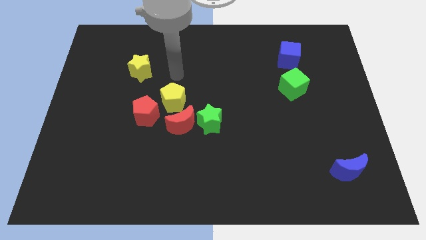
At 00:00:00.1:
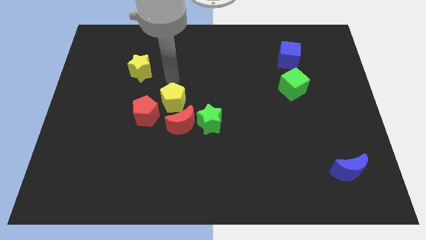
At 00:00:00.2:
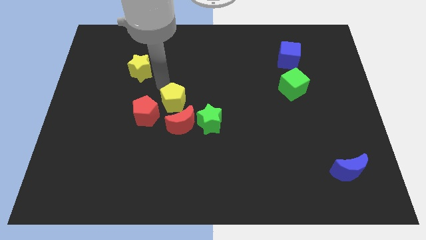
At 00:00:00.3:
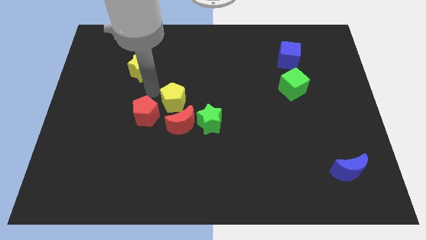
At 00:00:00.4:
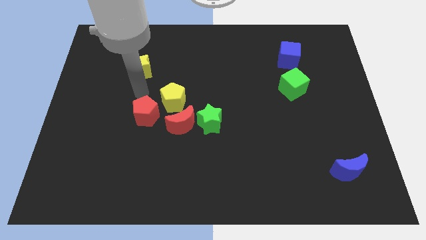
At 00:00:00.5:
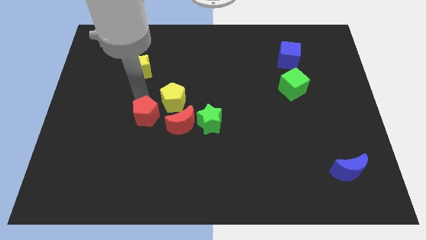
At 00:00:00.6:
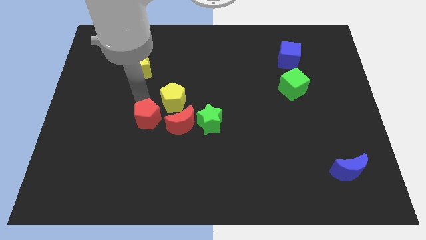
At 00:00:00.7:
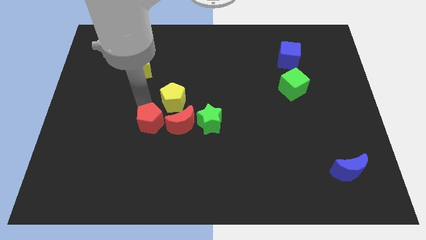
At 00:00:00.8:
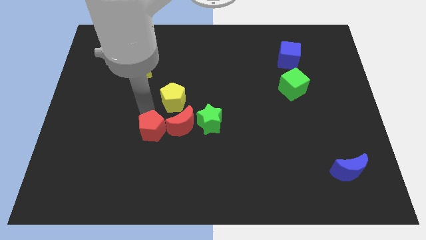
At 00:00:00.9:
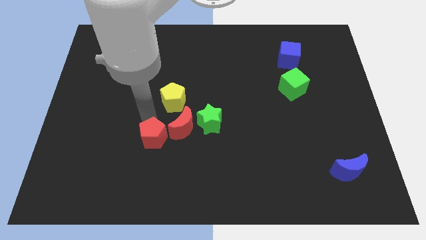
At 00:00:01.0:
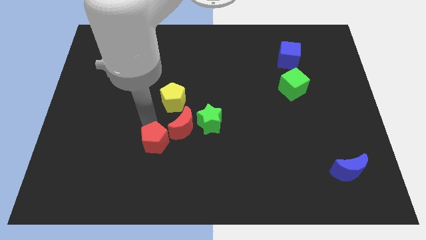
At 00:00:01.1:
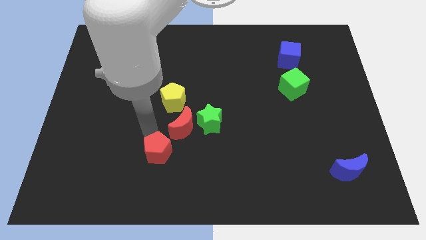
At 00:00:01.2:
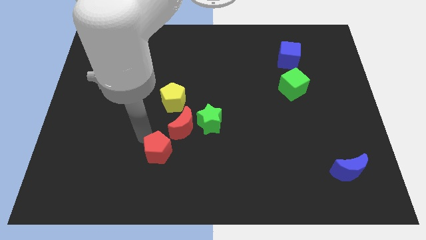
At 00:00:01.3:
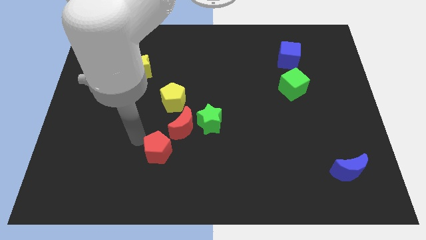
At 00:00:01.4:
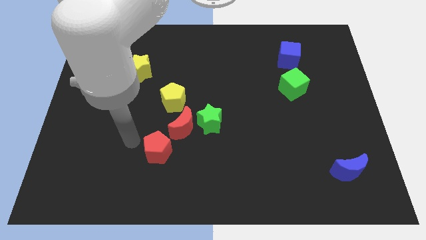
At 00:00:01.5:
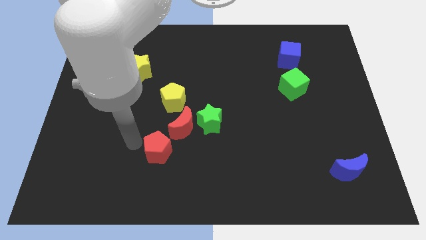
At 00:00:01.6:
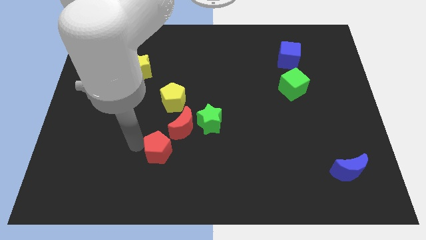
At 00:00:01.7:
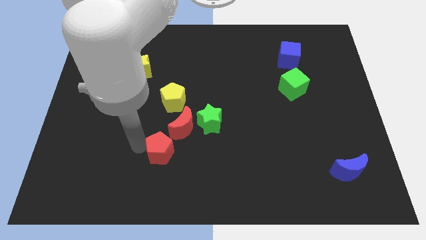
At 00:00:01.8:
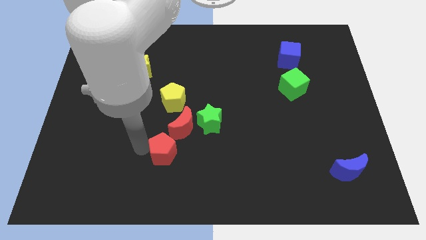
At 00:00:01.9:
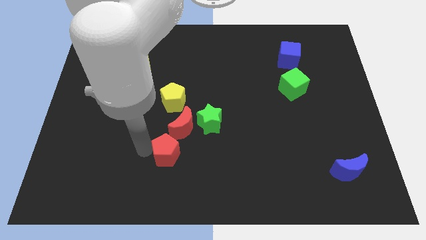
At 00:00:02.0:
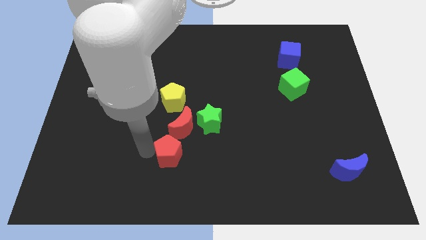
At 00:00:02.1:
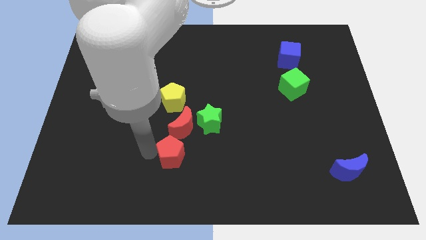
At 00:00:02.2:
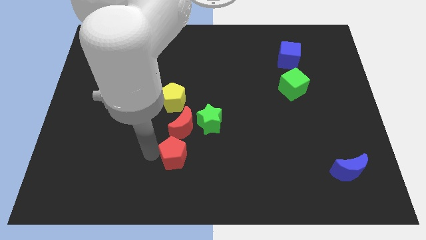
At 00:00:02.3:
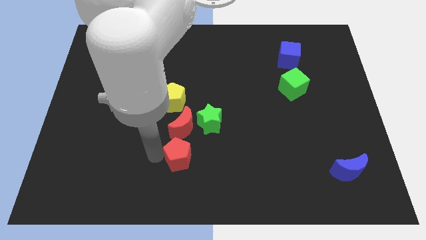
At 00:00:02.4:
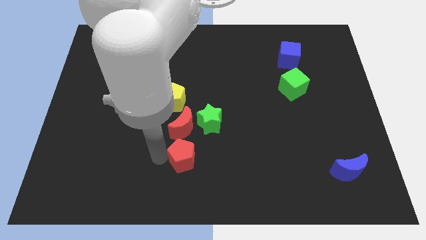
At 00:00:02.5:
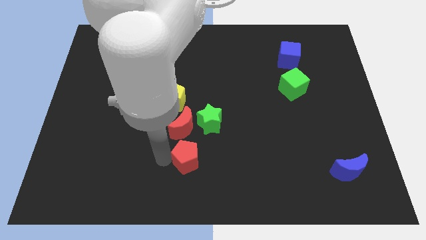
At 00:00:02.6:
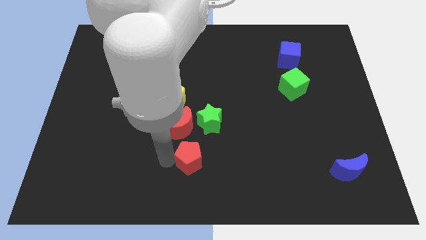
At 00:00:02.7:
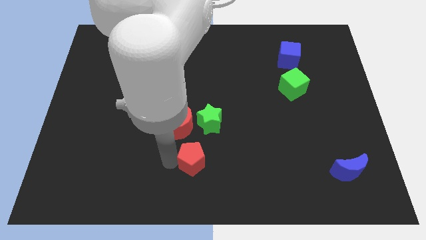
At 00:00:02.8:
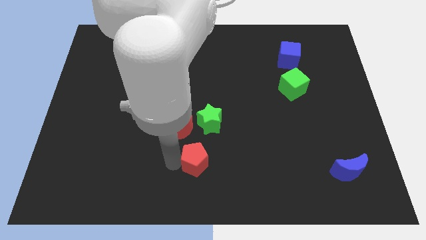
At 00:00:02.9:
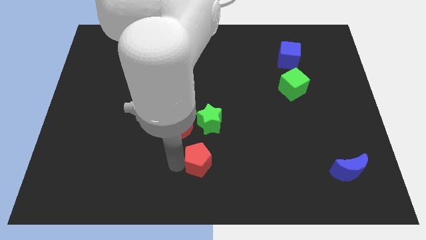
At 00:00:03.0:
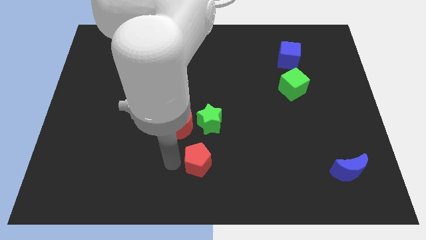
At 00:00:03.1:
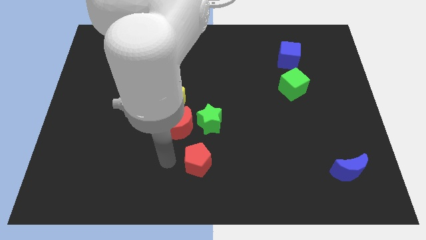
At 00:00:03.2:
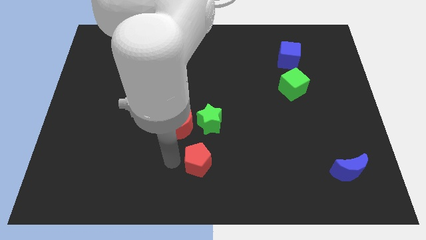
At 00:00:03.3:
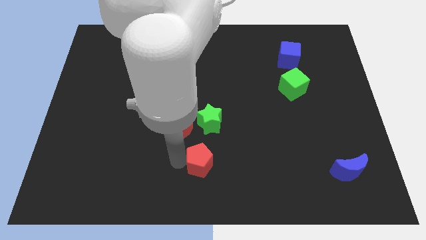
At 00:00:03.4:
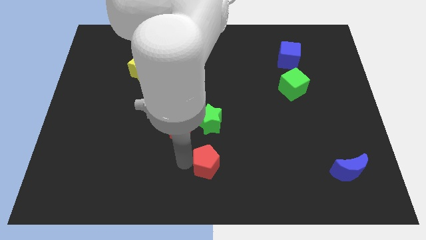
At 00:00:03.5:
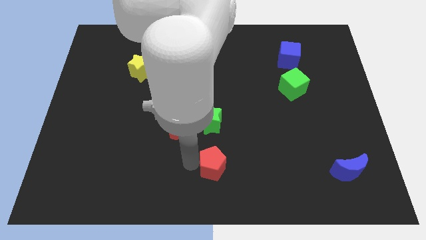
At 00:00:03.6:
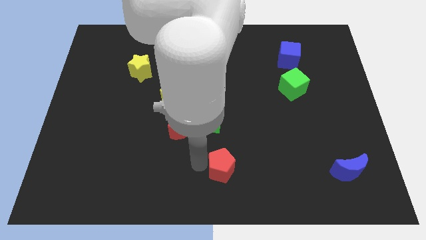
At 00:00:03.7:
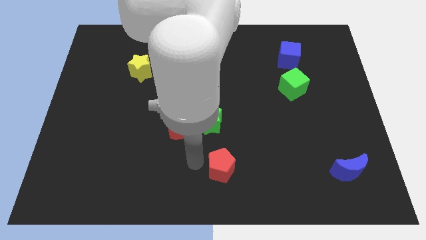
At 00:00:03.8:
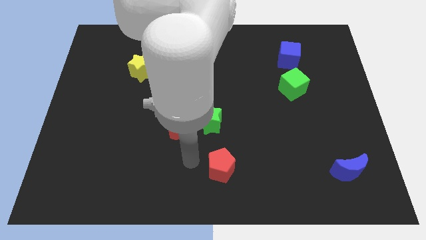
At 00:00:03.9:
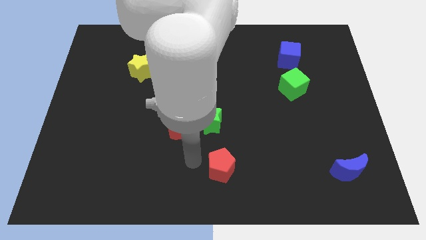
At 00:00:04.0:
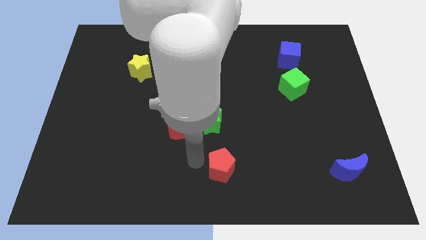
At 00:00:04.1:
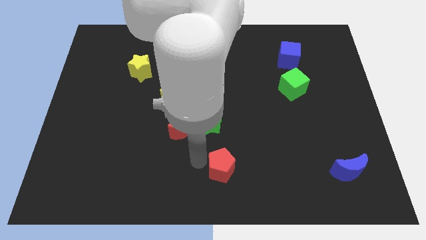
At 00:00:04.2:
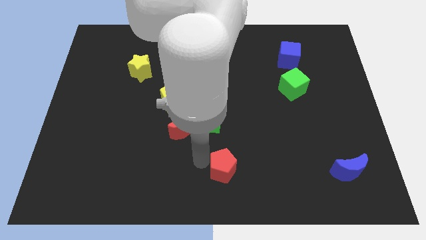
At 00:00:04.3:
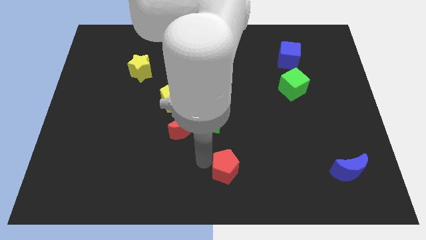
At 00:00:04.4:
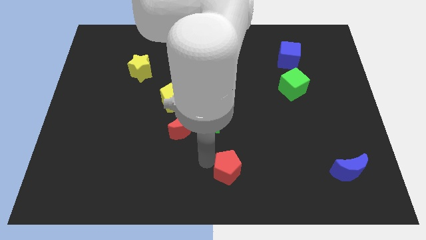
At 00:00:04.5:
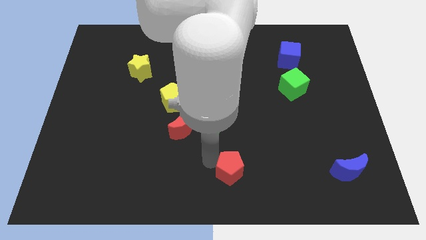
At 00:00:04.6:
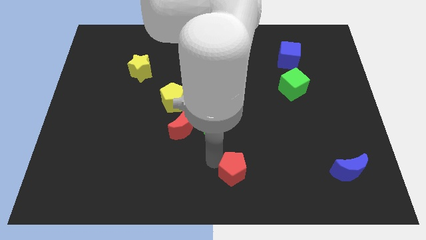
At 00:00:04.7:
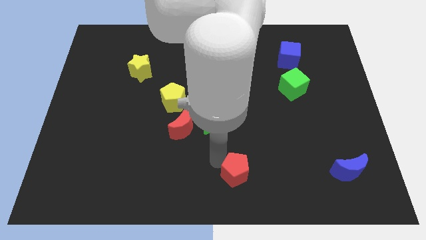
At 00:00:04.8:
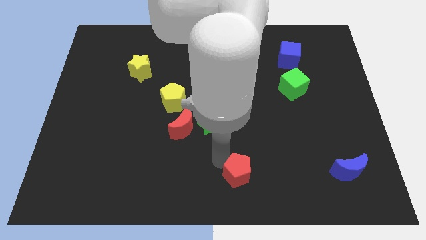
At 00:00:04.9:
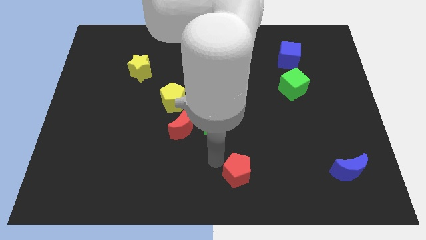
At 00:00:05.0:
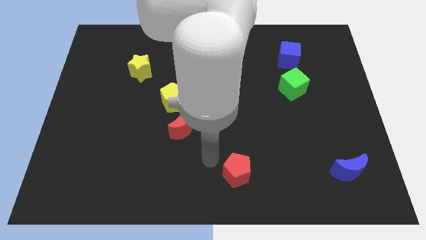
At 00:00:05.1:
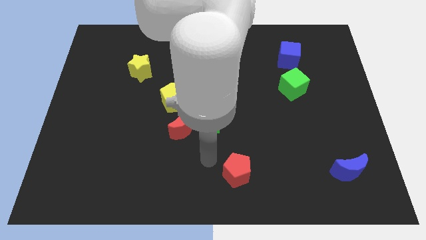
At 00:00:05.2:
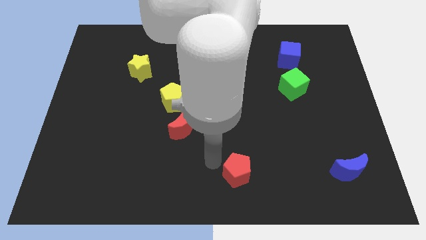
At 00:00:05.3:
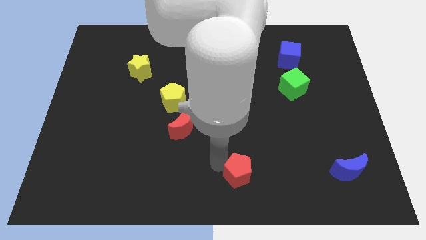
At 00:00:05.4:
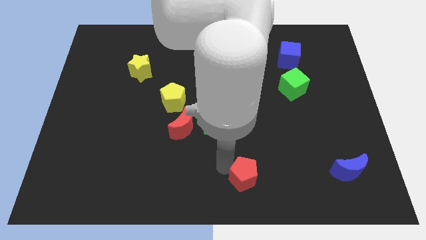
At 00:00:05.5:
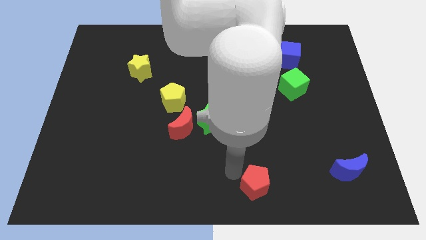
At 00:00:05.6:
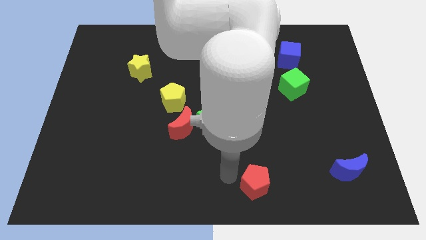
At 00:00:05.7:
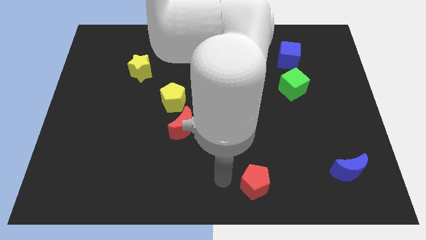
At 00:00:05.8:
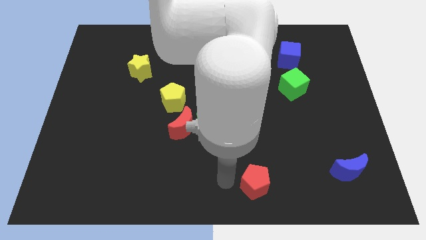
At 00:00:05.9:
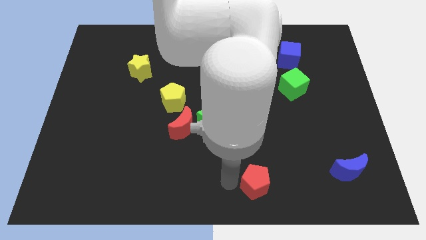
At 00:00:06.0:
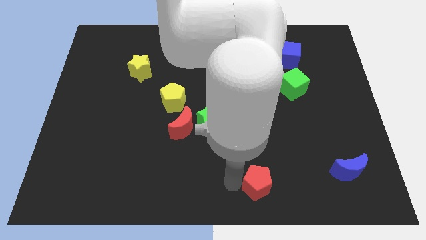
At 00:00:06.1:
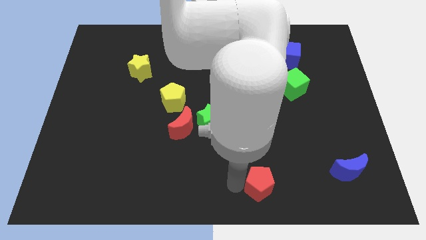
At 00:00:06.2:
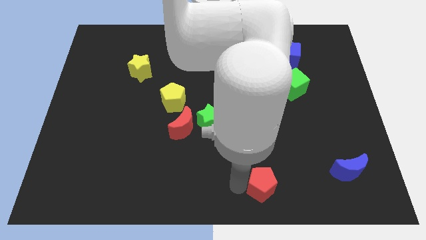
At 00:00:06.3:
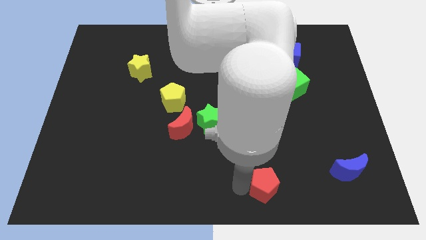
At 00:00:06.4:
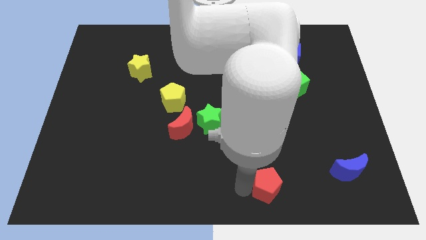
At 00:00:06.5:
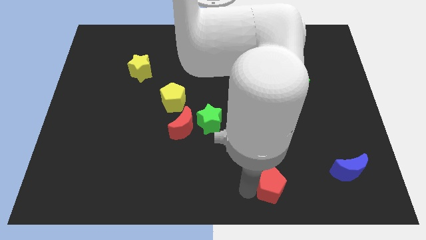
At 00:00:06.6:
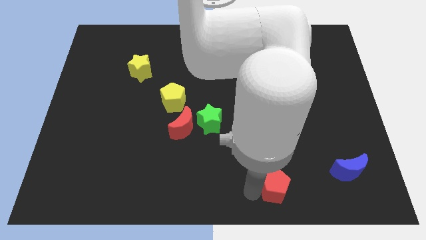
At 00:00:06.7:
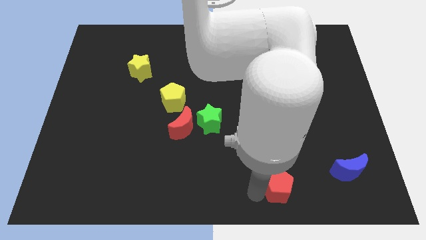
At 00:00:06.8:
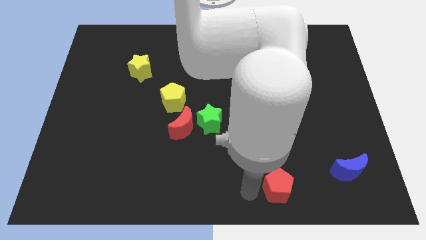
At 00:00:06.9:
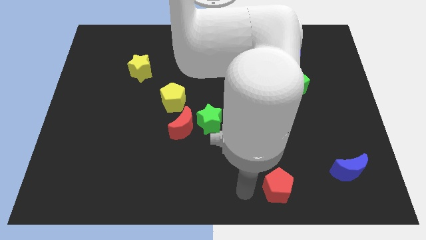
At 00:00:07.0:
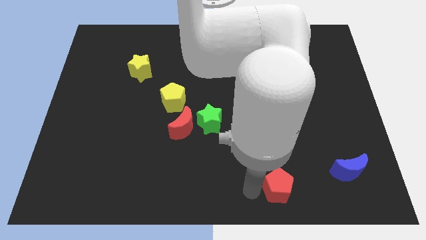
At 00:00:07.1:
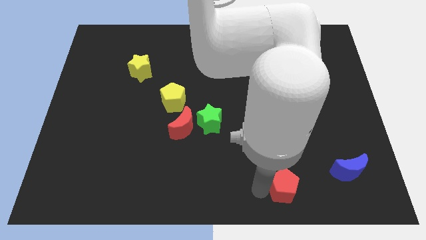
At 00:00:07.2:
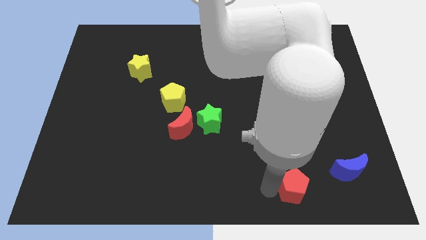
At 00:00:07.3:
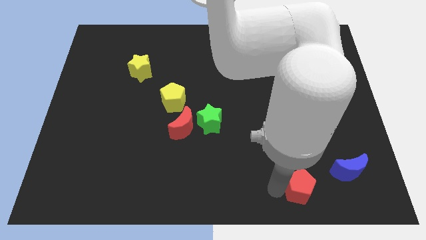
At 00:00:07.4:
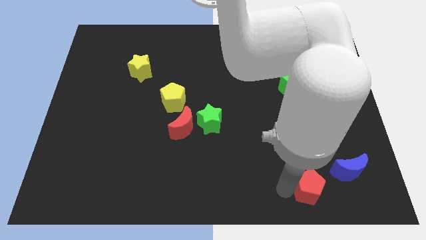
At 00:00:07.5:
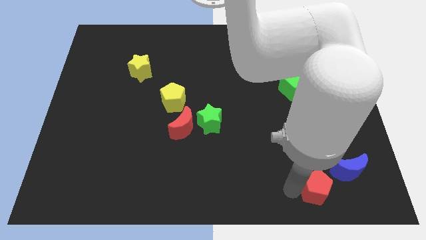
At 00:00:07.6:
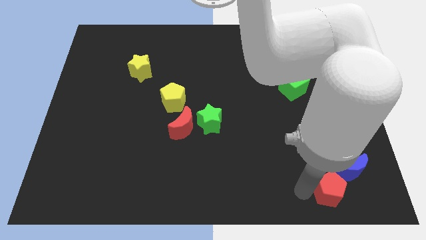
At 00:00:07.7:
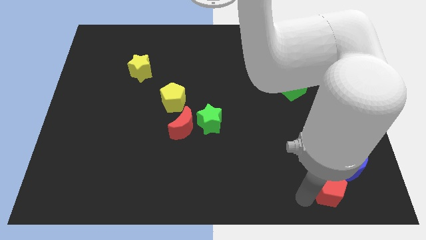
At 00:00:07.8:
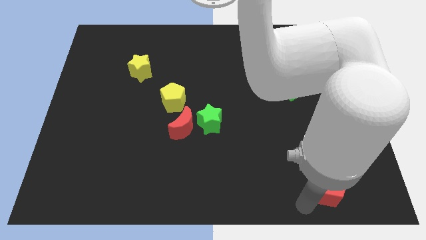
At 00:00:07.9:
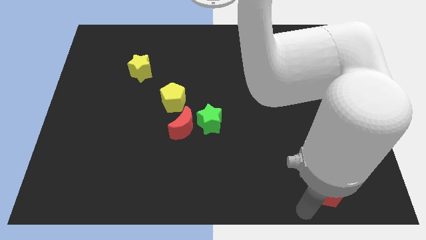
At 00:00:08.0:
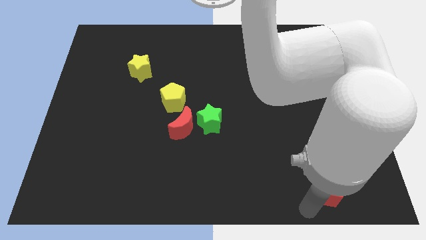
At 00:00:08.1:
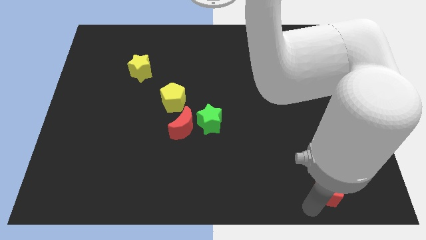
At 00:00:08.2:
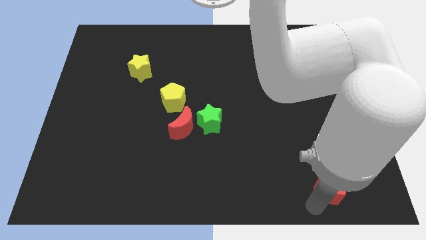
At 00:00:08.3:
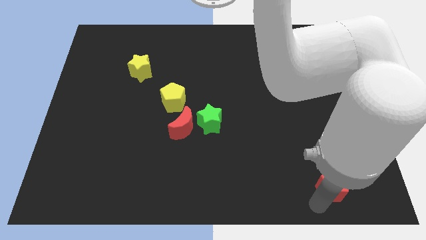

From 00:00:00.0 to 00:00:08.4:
move the red pentagon close to the blue moon
